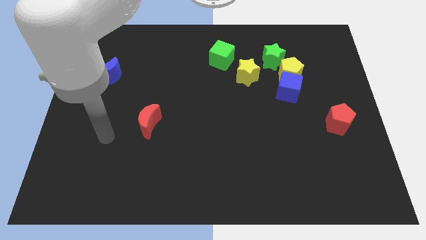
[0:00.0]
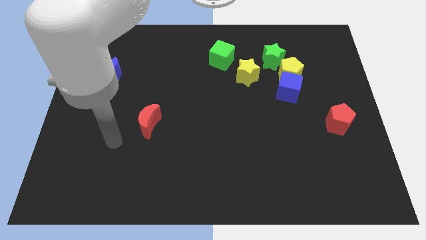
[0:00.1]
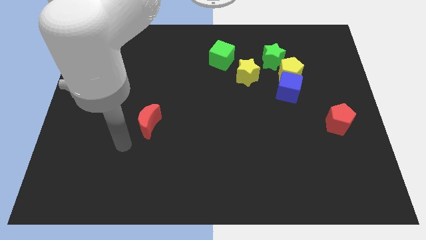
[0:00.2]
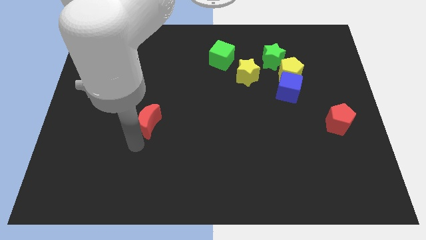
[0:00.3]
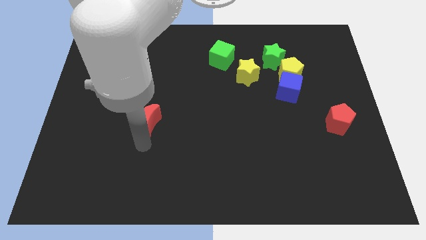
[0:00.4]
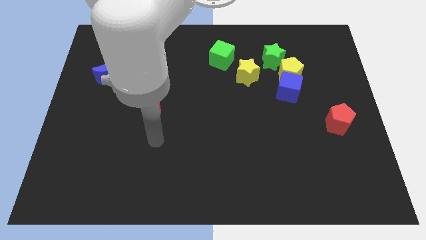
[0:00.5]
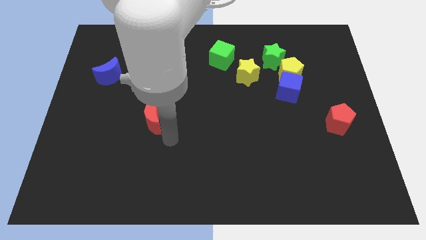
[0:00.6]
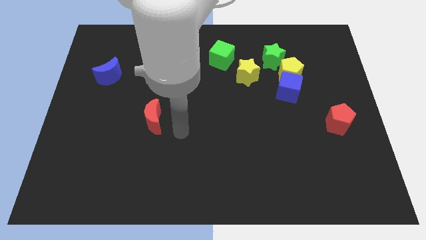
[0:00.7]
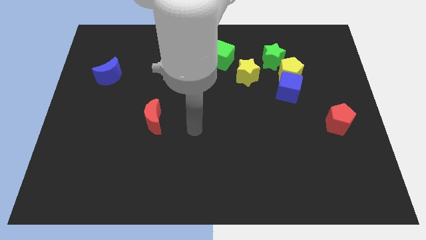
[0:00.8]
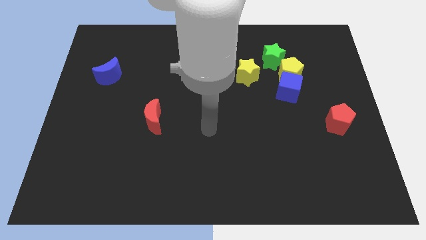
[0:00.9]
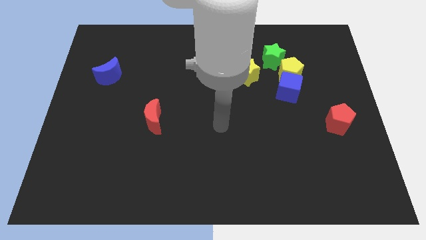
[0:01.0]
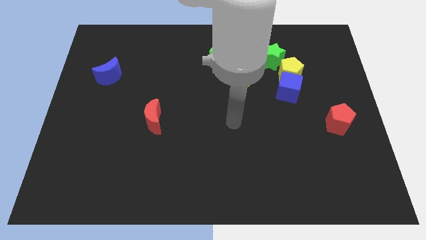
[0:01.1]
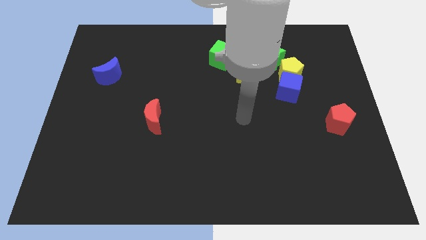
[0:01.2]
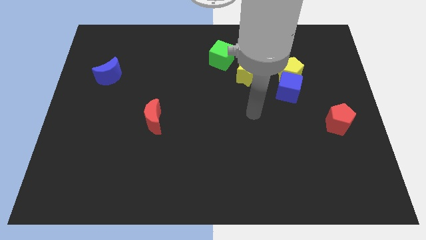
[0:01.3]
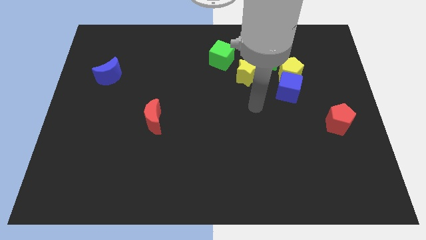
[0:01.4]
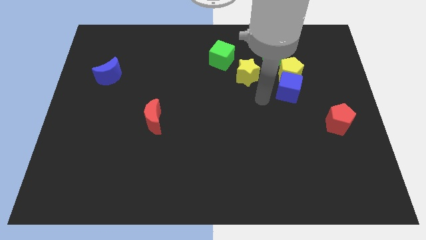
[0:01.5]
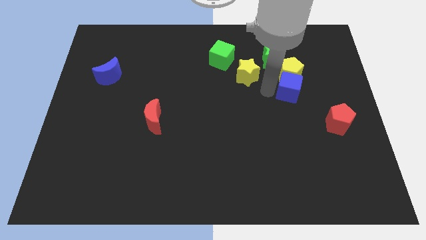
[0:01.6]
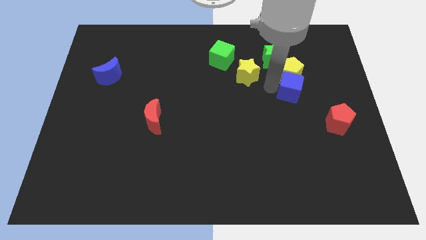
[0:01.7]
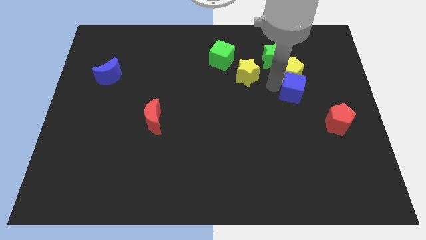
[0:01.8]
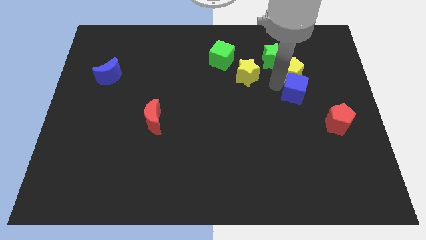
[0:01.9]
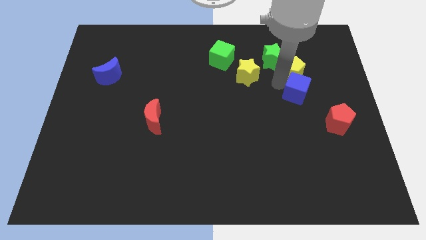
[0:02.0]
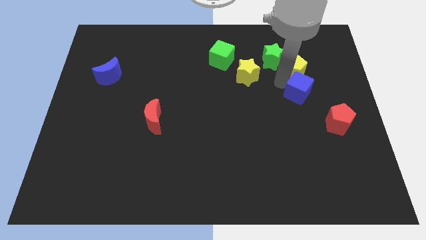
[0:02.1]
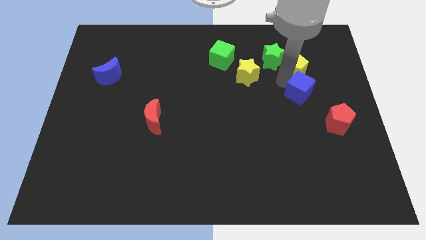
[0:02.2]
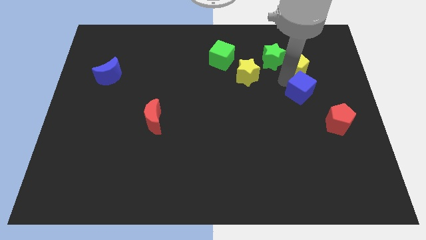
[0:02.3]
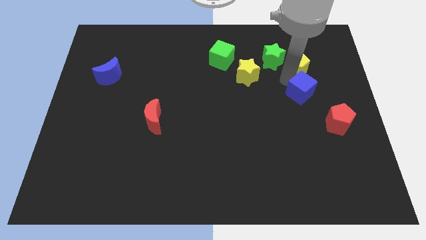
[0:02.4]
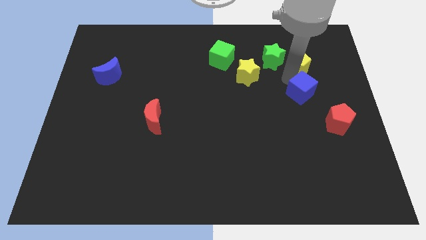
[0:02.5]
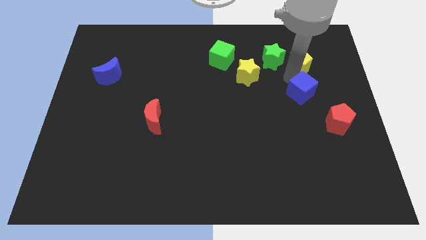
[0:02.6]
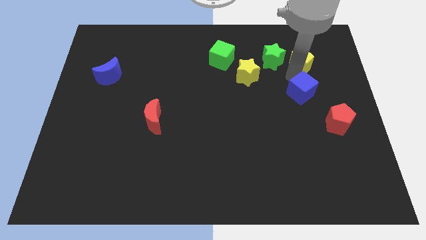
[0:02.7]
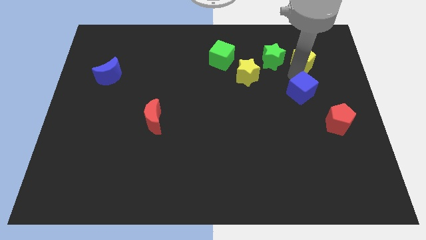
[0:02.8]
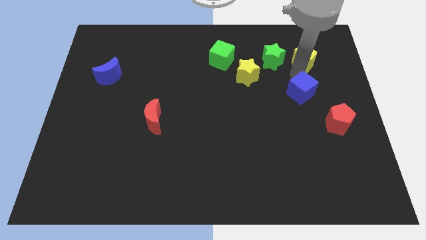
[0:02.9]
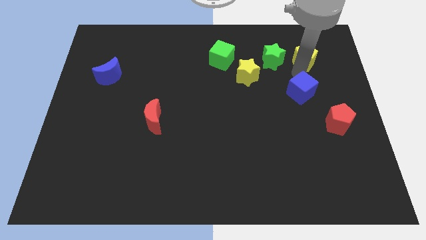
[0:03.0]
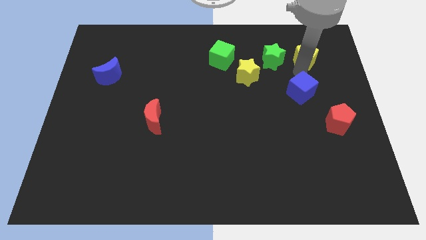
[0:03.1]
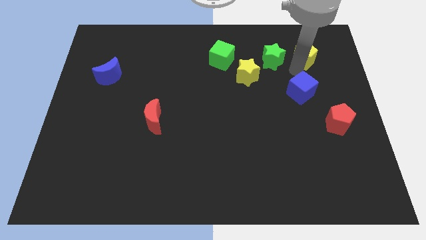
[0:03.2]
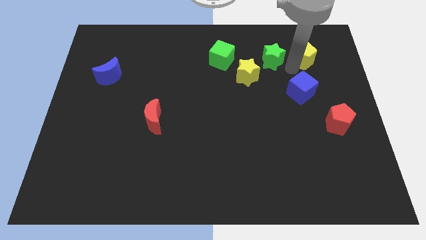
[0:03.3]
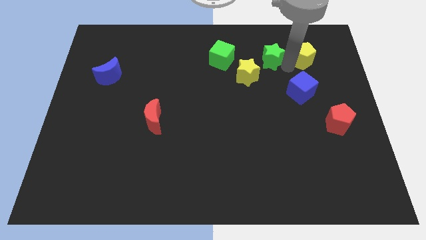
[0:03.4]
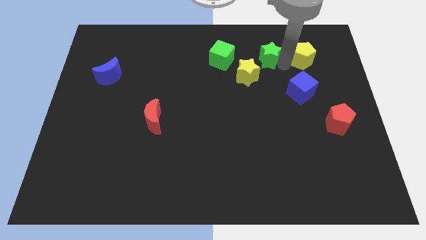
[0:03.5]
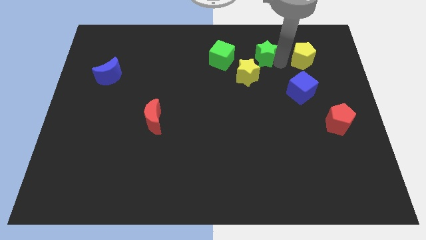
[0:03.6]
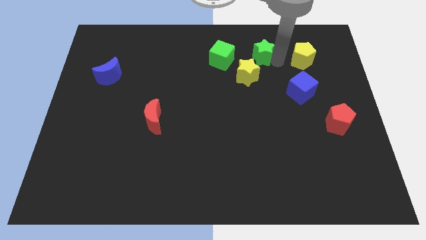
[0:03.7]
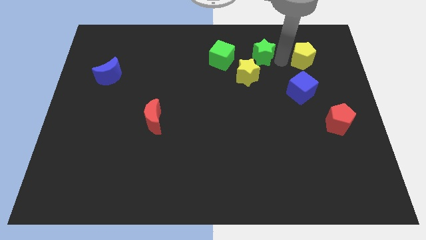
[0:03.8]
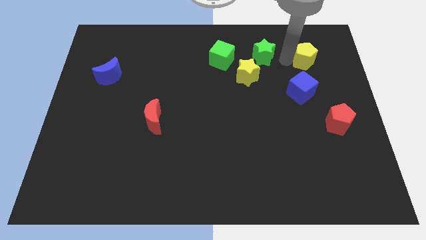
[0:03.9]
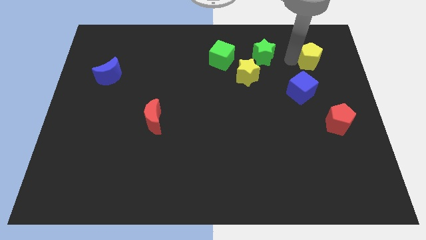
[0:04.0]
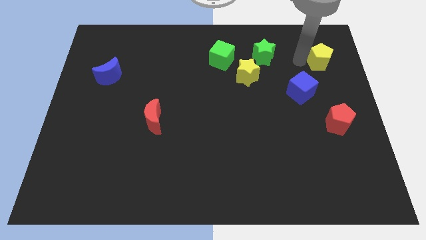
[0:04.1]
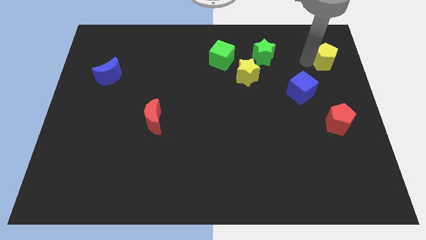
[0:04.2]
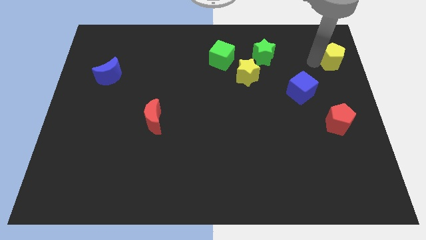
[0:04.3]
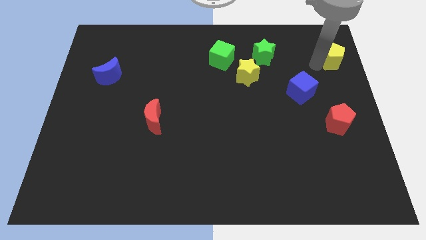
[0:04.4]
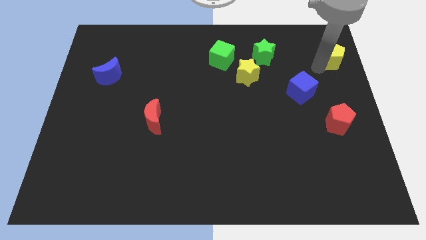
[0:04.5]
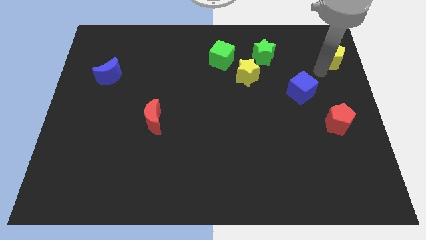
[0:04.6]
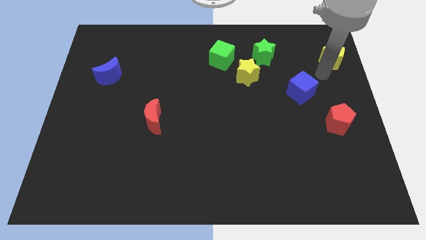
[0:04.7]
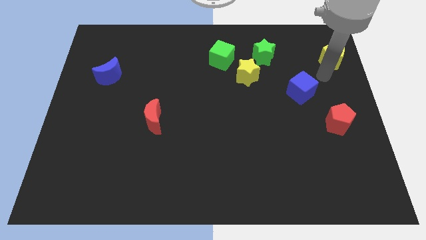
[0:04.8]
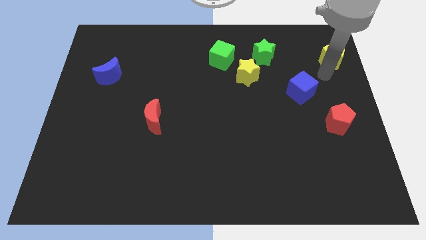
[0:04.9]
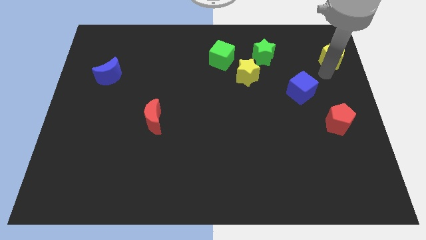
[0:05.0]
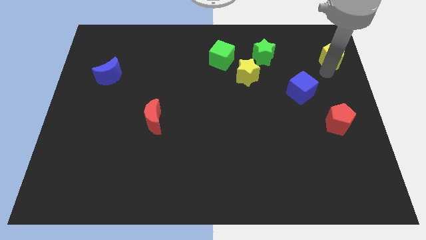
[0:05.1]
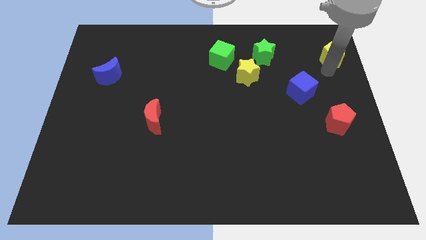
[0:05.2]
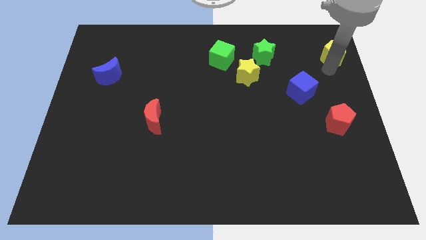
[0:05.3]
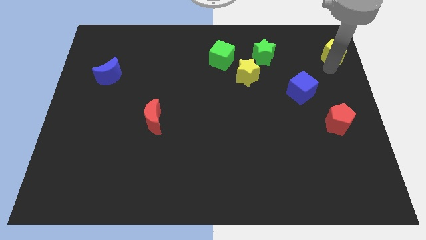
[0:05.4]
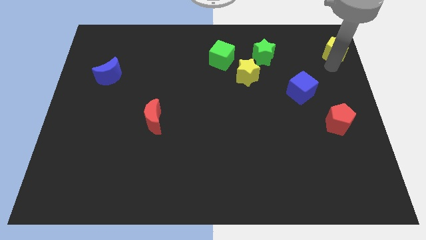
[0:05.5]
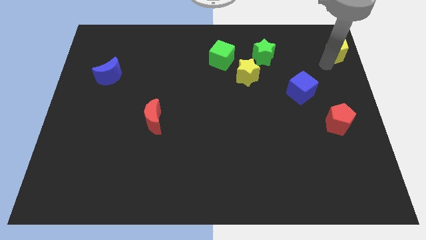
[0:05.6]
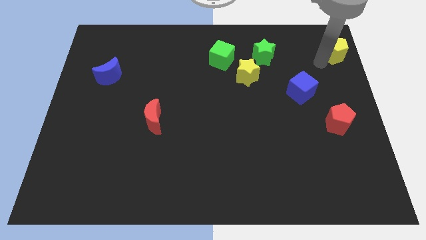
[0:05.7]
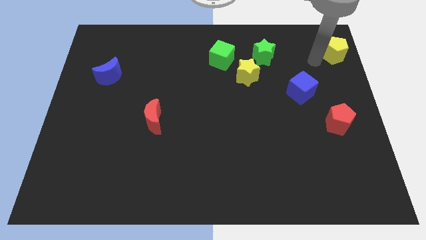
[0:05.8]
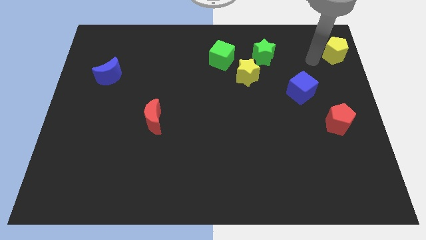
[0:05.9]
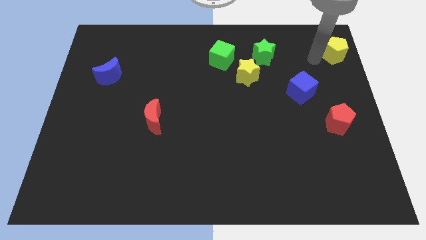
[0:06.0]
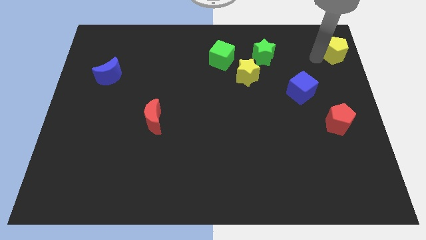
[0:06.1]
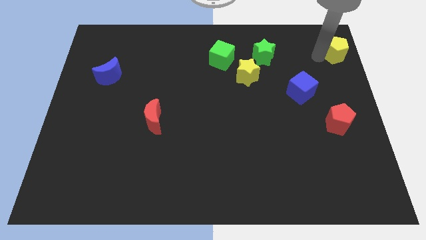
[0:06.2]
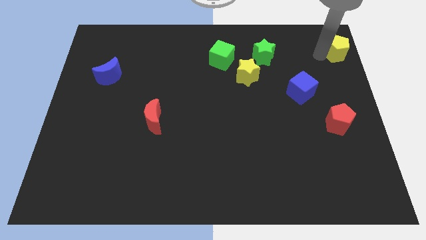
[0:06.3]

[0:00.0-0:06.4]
put the yellow pentagon to the top right corner
